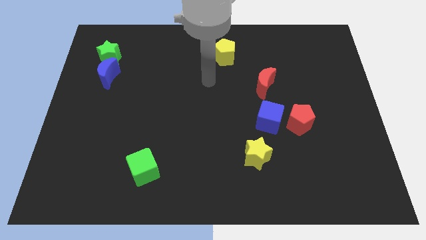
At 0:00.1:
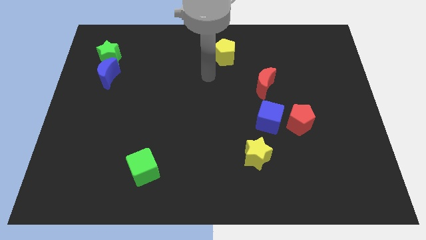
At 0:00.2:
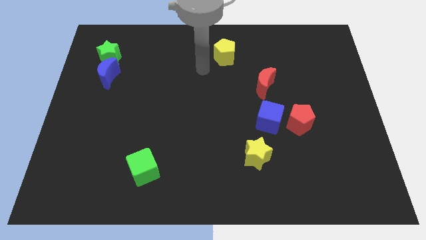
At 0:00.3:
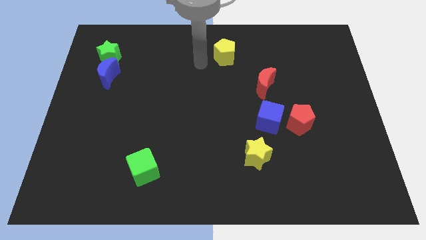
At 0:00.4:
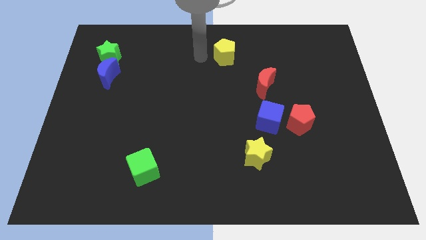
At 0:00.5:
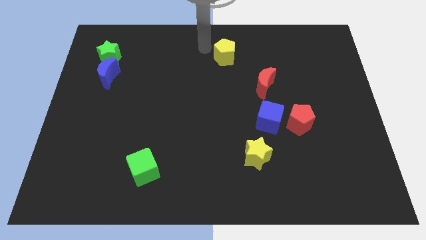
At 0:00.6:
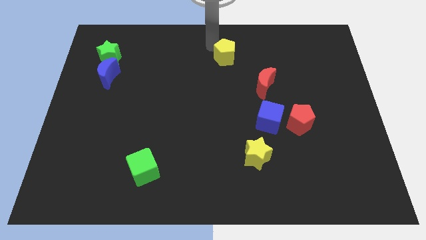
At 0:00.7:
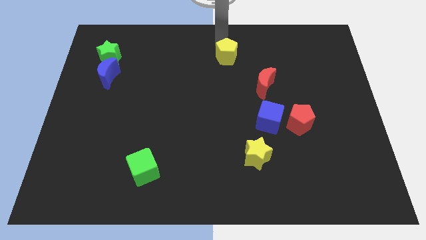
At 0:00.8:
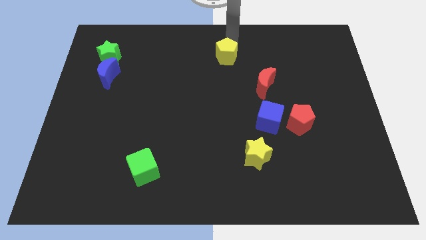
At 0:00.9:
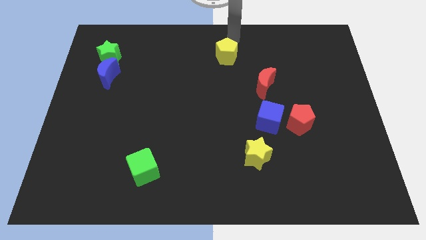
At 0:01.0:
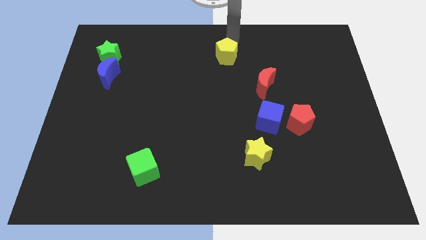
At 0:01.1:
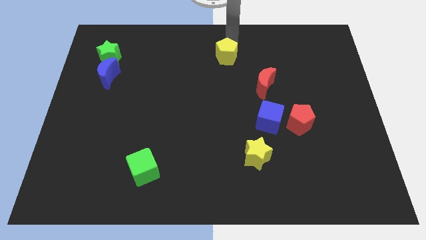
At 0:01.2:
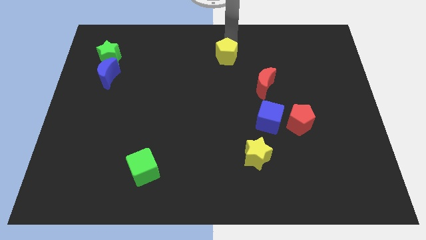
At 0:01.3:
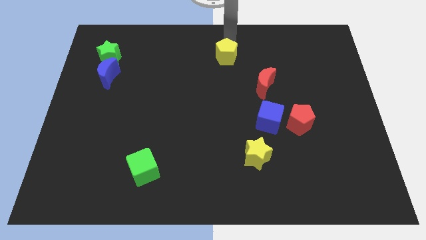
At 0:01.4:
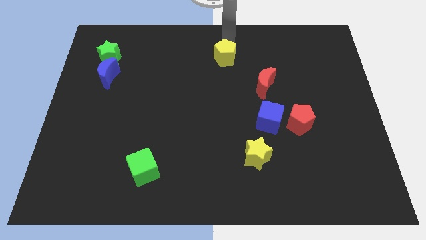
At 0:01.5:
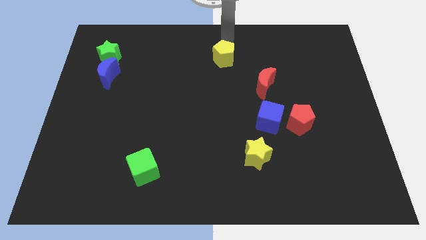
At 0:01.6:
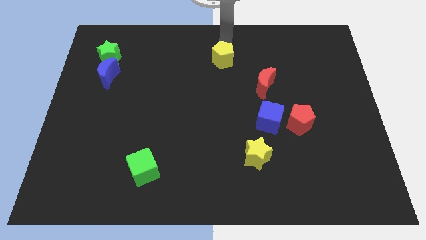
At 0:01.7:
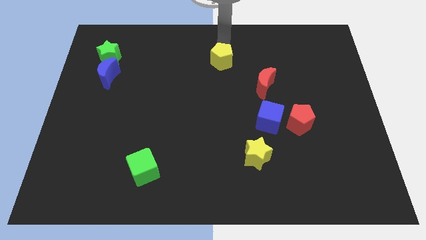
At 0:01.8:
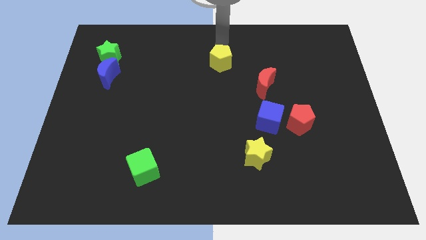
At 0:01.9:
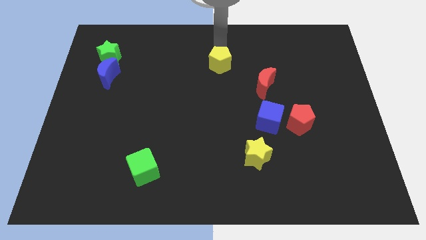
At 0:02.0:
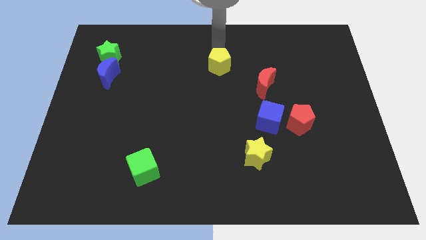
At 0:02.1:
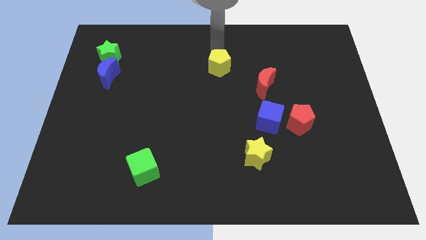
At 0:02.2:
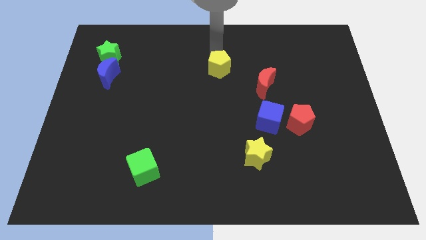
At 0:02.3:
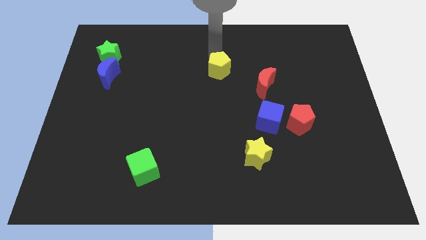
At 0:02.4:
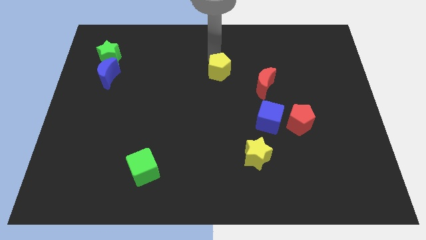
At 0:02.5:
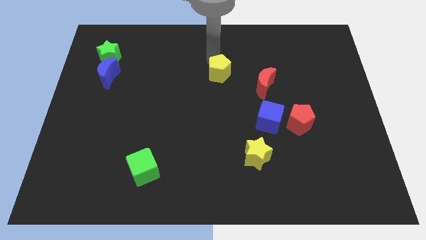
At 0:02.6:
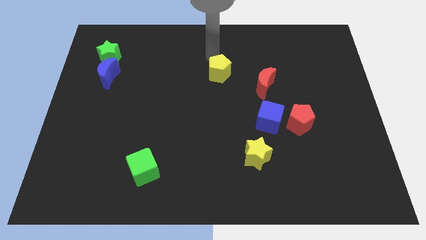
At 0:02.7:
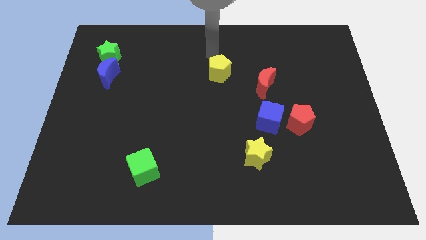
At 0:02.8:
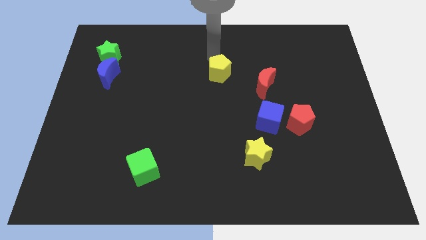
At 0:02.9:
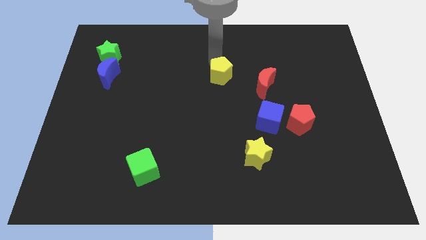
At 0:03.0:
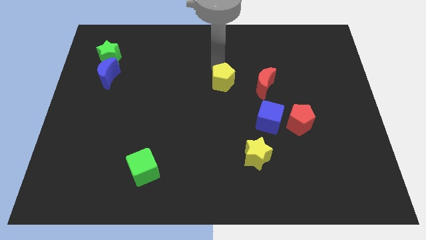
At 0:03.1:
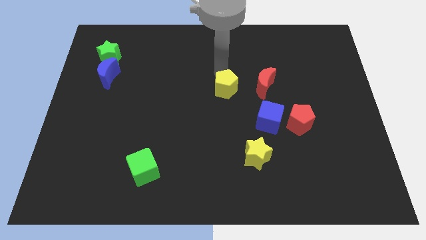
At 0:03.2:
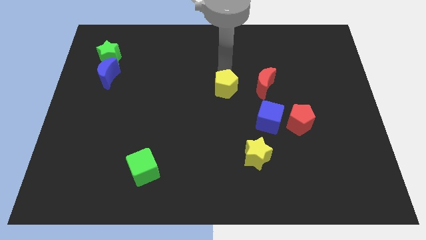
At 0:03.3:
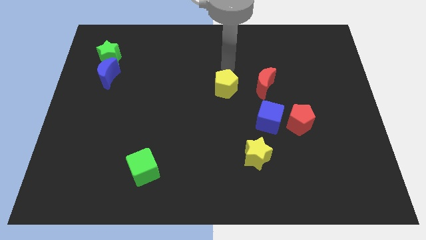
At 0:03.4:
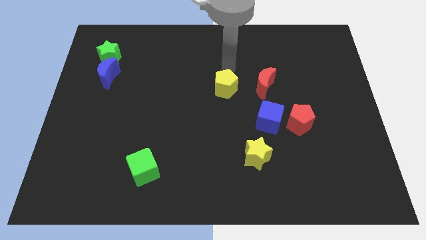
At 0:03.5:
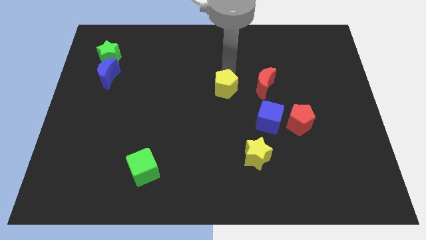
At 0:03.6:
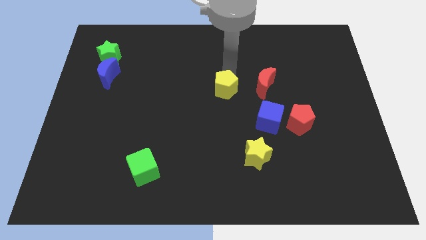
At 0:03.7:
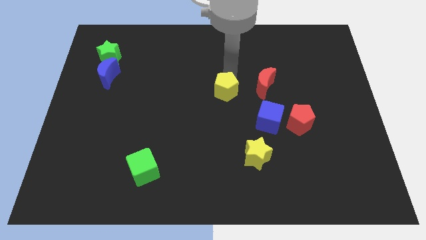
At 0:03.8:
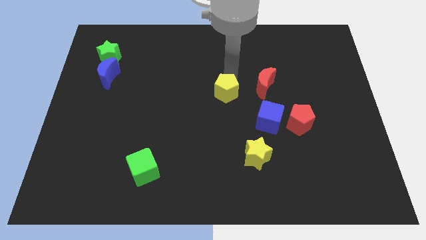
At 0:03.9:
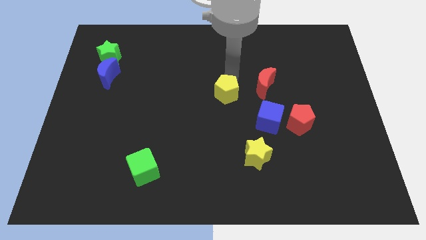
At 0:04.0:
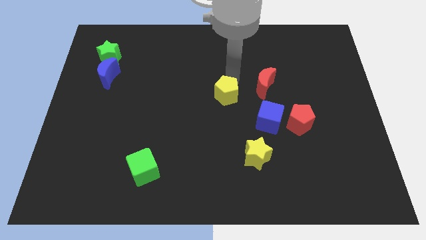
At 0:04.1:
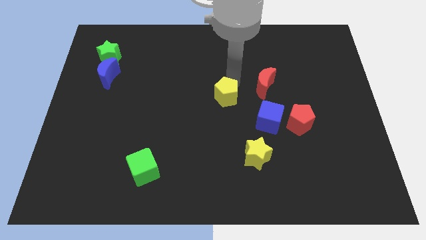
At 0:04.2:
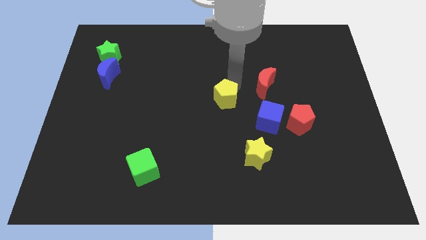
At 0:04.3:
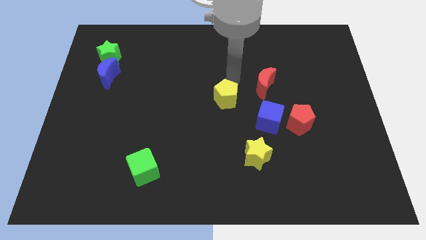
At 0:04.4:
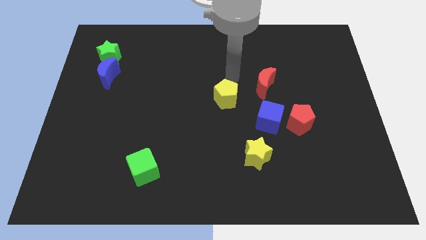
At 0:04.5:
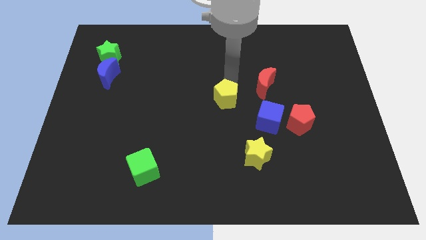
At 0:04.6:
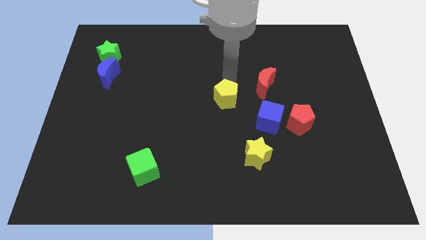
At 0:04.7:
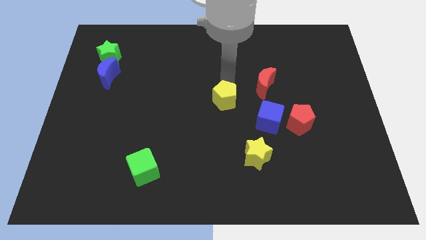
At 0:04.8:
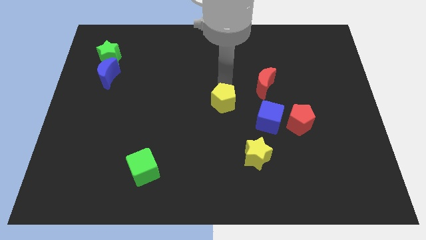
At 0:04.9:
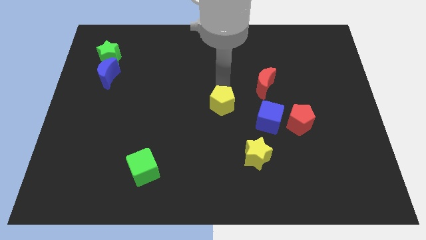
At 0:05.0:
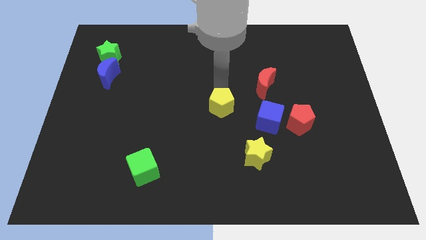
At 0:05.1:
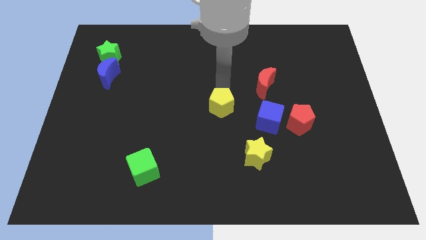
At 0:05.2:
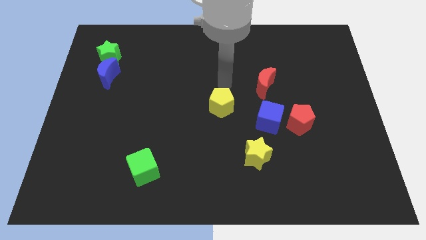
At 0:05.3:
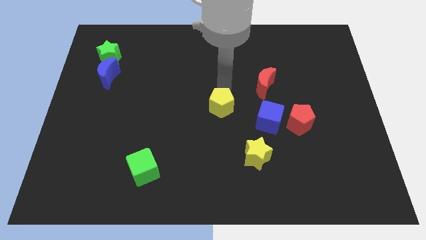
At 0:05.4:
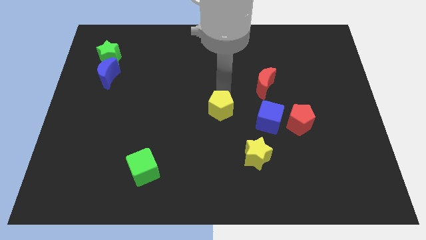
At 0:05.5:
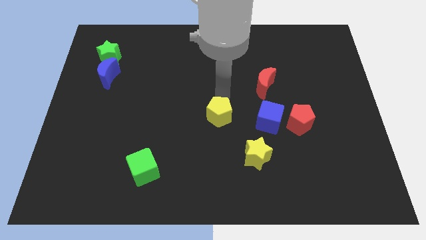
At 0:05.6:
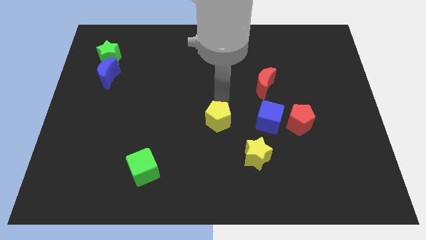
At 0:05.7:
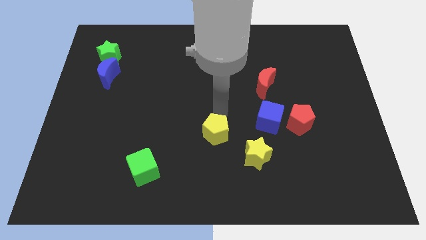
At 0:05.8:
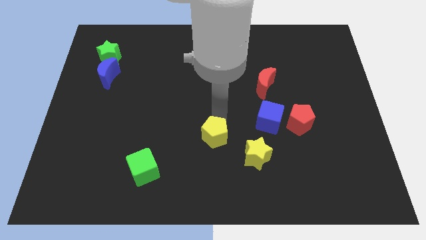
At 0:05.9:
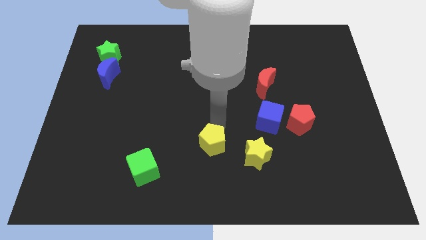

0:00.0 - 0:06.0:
put the yellow pentagon just left of the yellow star

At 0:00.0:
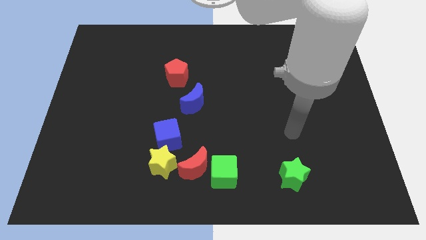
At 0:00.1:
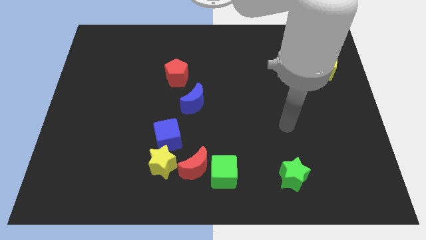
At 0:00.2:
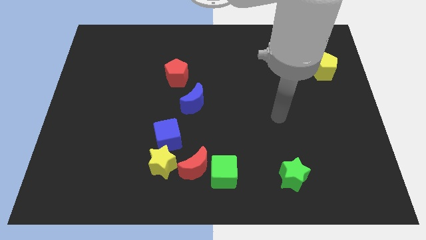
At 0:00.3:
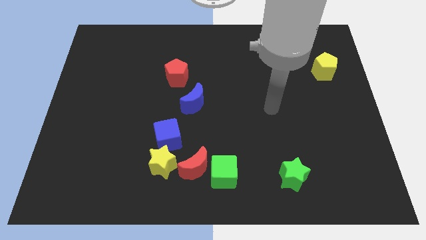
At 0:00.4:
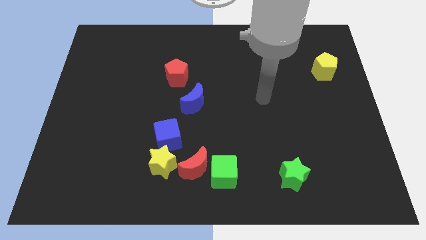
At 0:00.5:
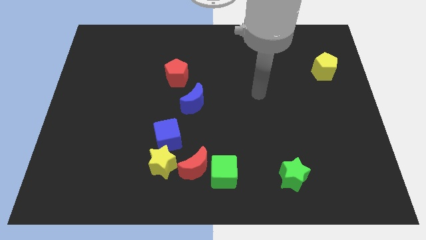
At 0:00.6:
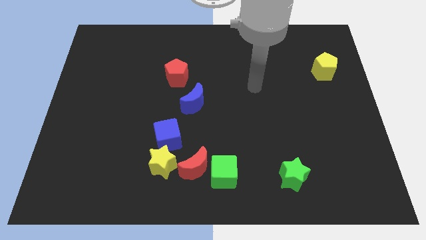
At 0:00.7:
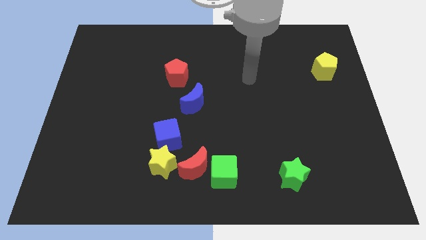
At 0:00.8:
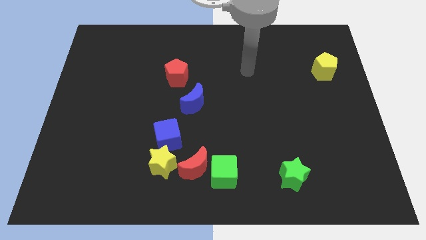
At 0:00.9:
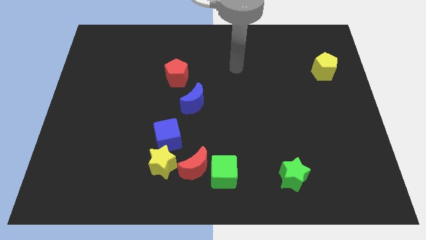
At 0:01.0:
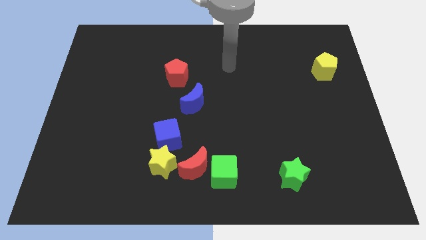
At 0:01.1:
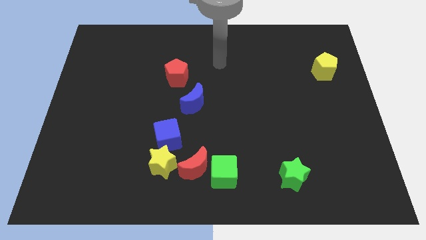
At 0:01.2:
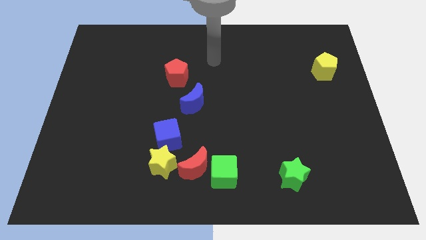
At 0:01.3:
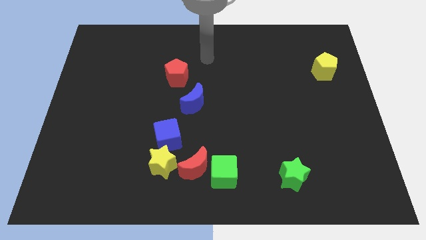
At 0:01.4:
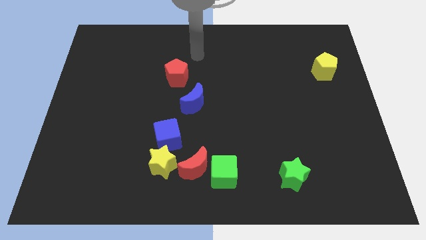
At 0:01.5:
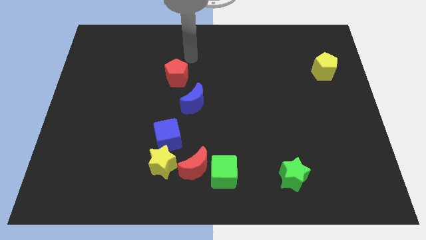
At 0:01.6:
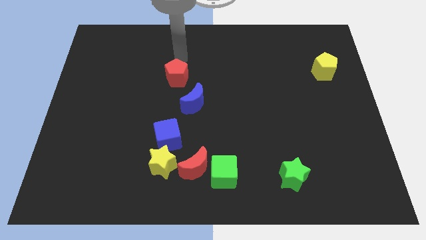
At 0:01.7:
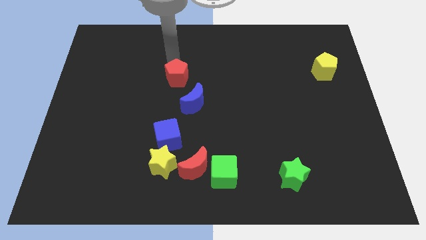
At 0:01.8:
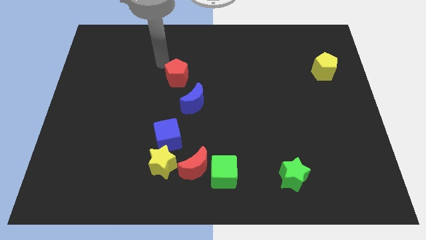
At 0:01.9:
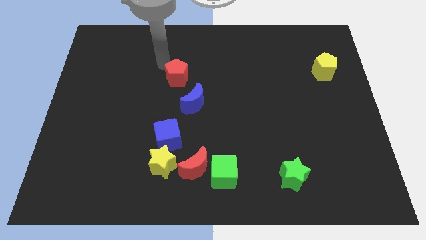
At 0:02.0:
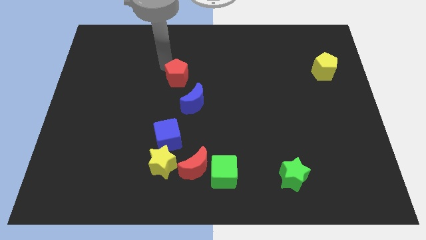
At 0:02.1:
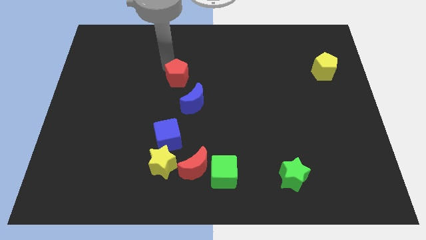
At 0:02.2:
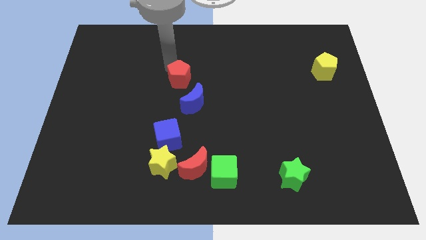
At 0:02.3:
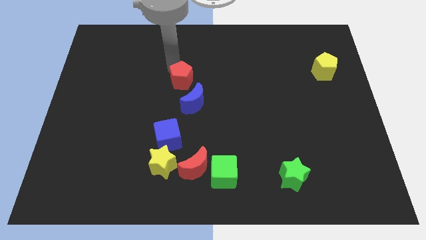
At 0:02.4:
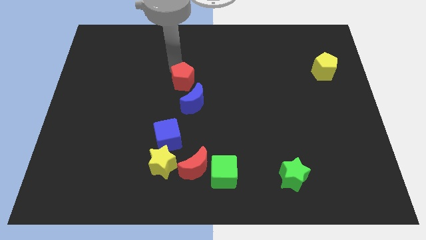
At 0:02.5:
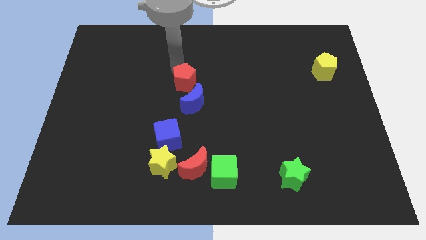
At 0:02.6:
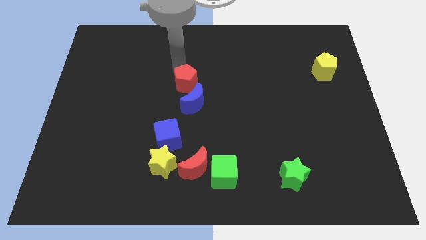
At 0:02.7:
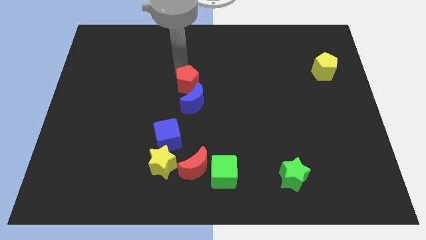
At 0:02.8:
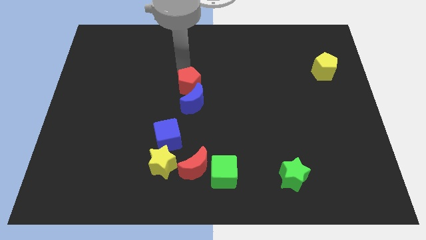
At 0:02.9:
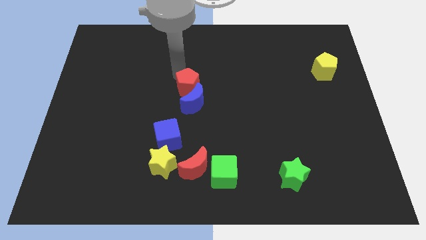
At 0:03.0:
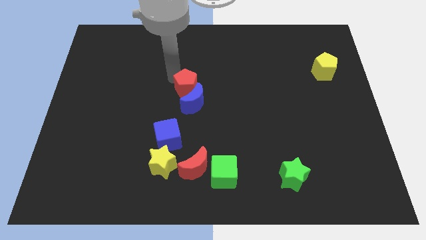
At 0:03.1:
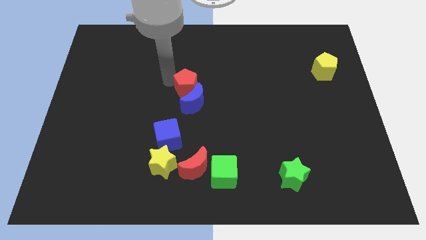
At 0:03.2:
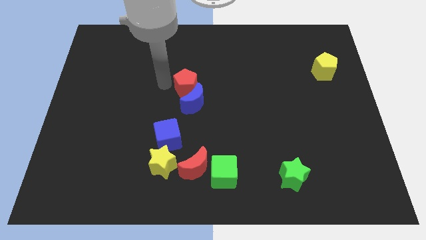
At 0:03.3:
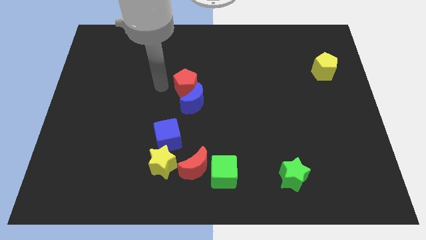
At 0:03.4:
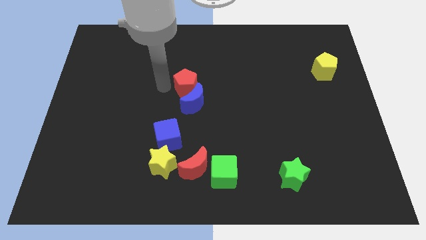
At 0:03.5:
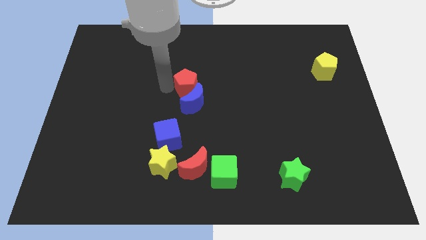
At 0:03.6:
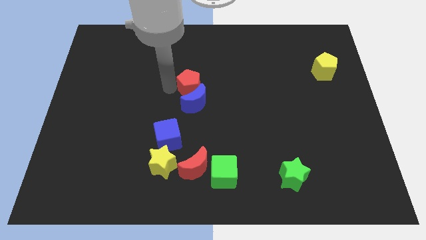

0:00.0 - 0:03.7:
put the red pentagon diagonally up and to the right of the blue moon
